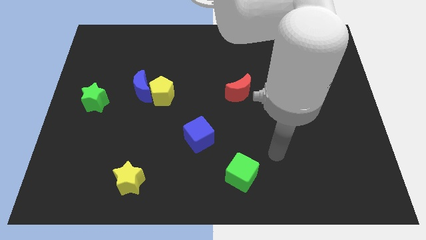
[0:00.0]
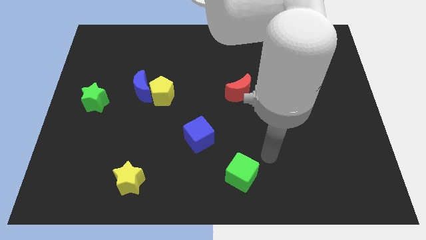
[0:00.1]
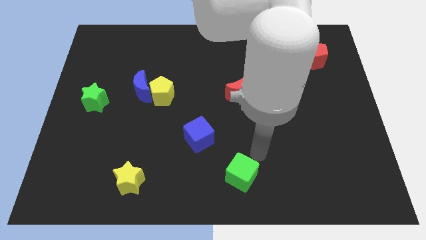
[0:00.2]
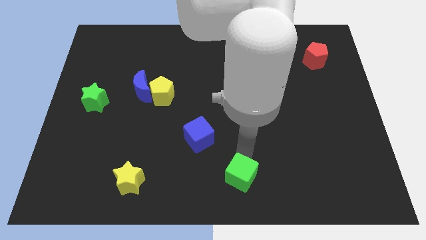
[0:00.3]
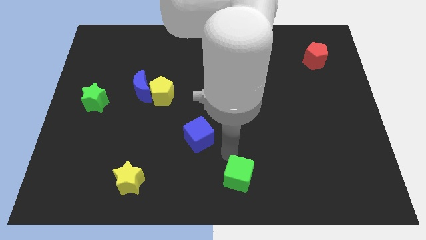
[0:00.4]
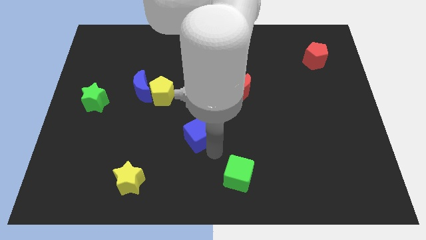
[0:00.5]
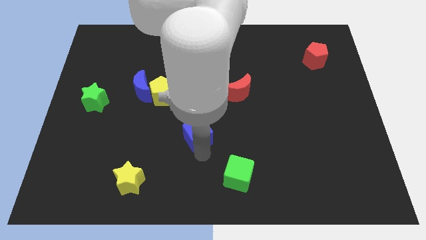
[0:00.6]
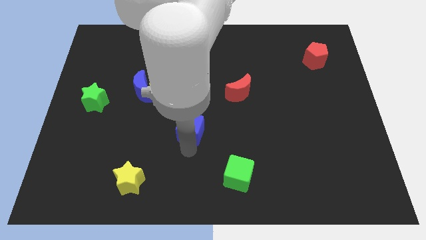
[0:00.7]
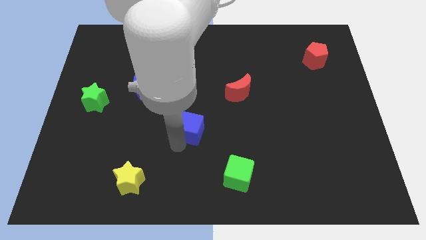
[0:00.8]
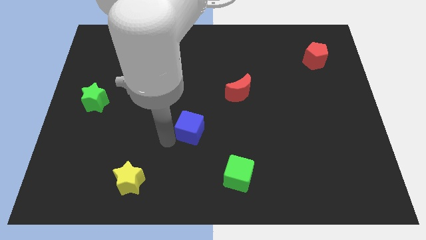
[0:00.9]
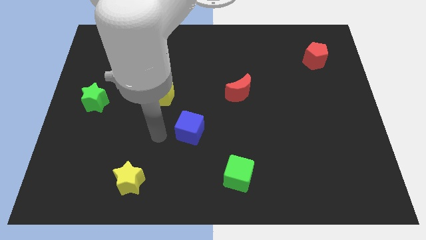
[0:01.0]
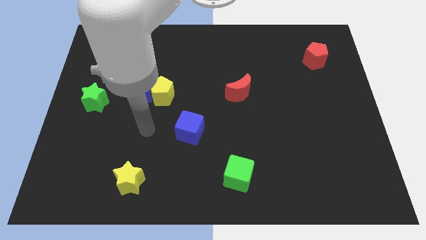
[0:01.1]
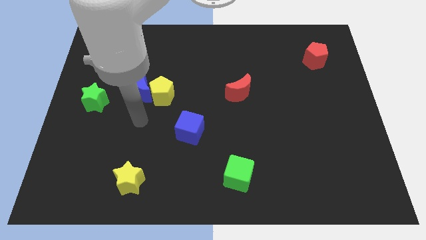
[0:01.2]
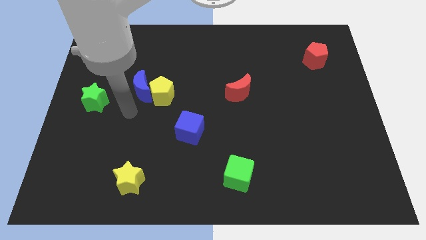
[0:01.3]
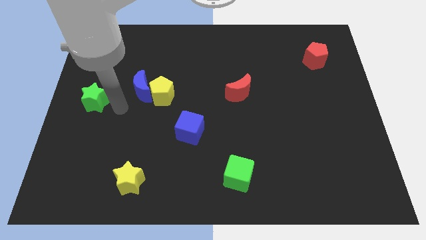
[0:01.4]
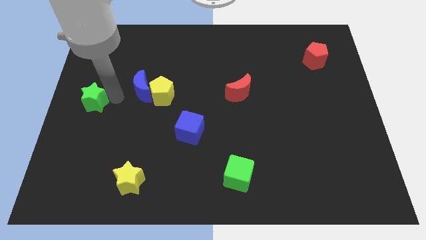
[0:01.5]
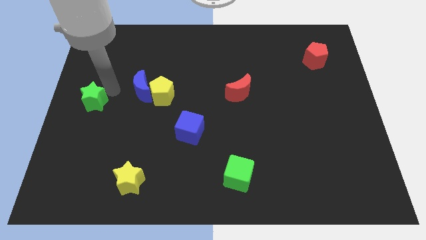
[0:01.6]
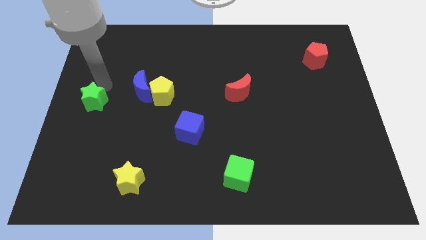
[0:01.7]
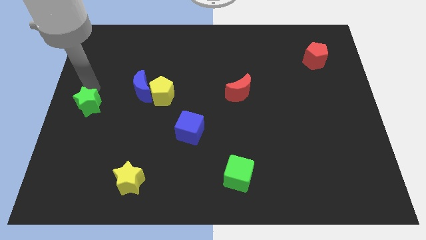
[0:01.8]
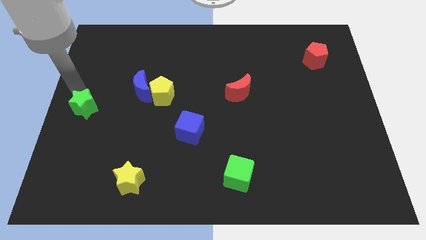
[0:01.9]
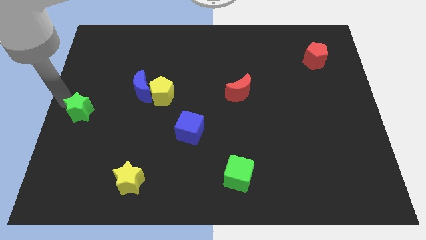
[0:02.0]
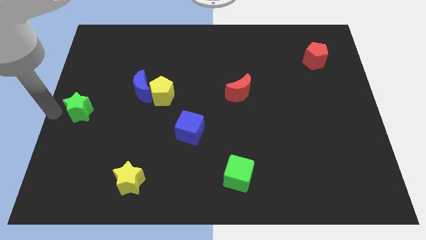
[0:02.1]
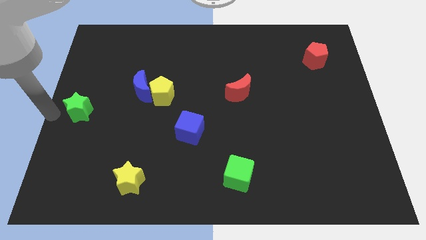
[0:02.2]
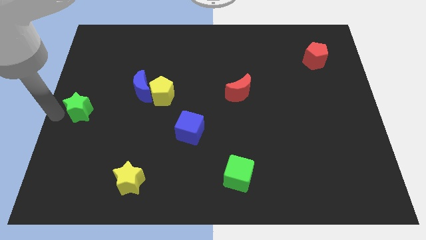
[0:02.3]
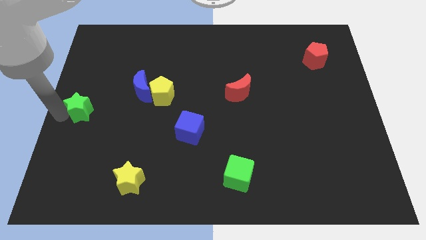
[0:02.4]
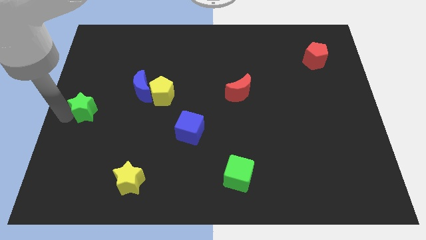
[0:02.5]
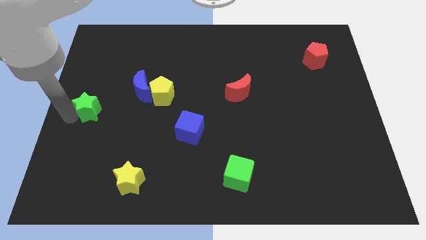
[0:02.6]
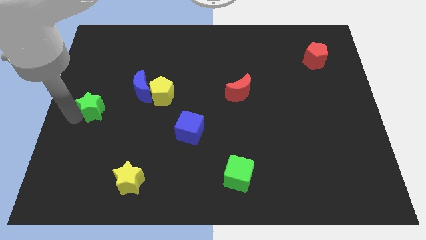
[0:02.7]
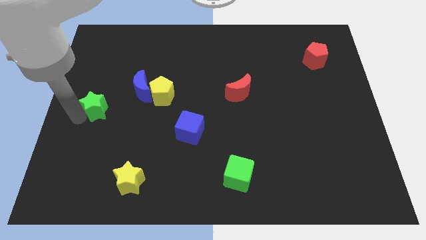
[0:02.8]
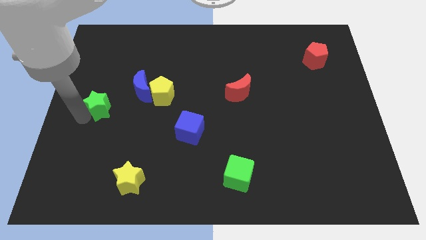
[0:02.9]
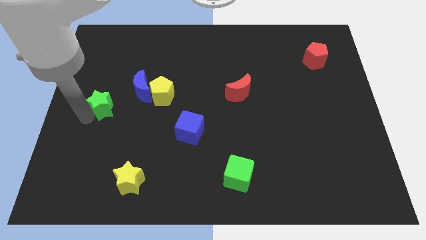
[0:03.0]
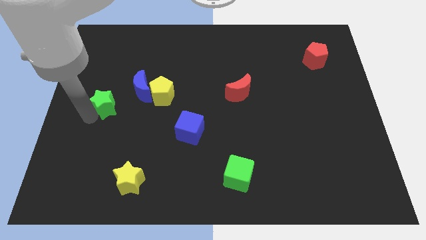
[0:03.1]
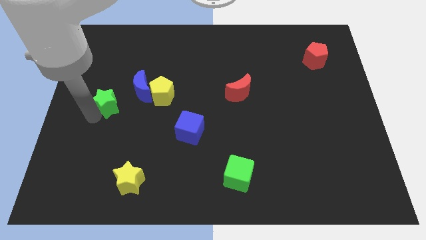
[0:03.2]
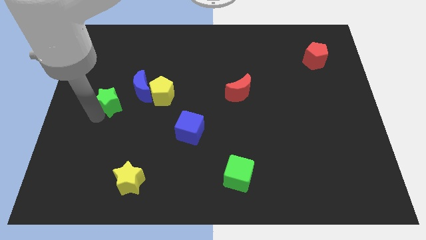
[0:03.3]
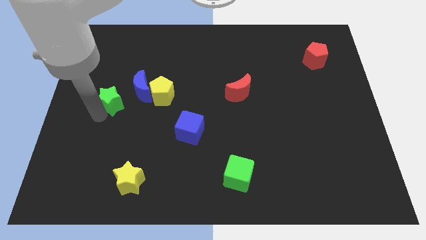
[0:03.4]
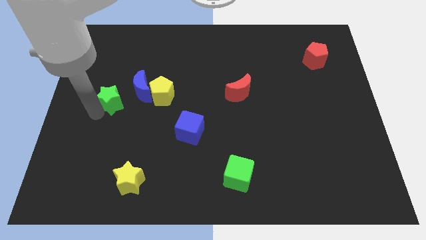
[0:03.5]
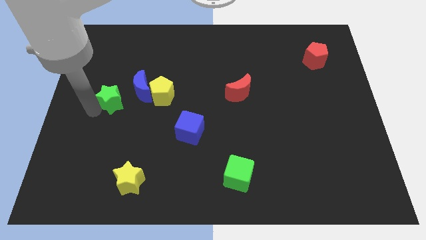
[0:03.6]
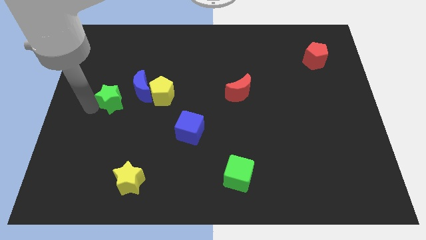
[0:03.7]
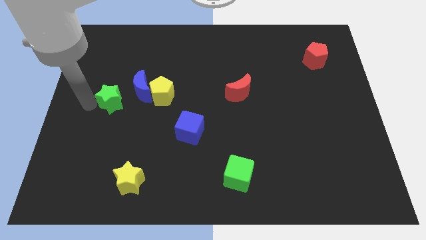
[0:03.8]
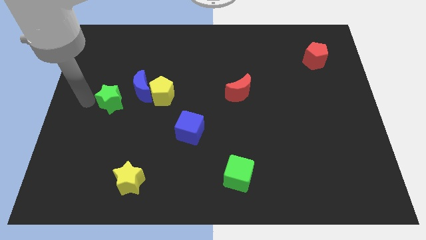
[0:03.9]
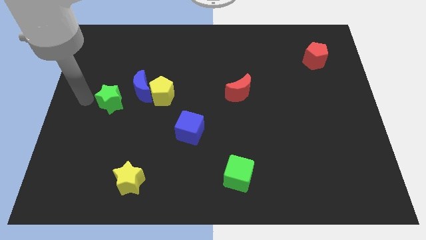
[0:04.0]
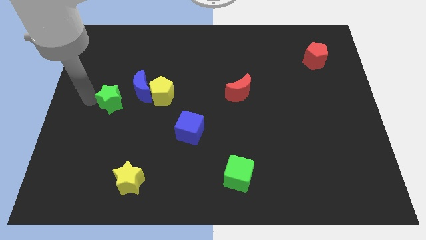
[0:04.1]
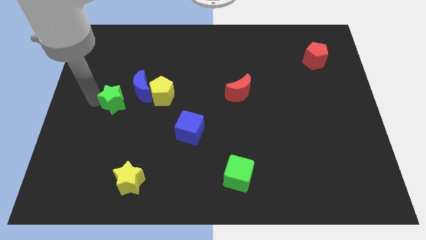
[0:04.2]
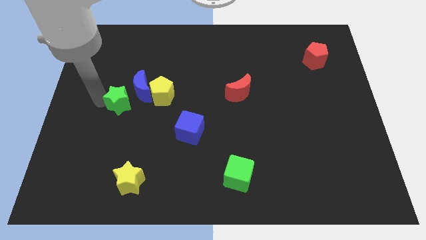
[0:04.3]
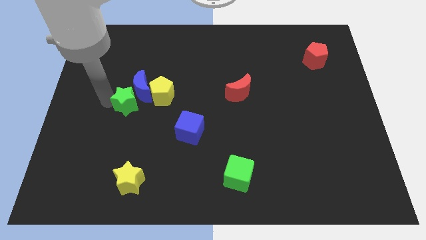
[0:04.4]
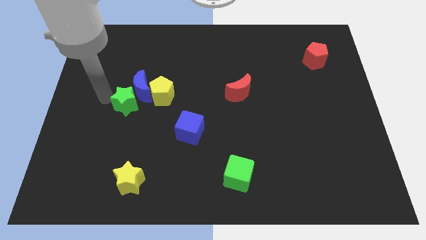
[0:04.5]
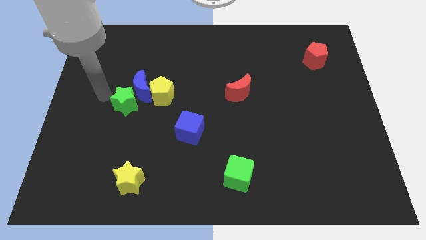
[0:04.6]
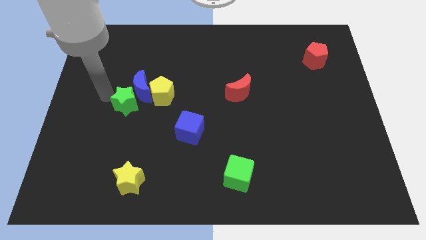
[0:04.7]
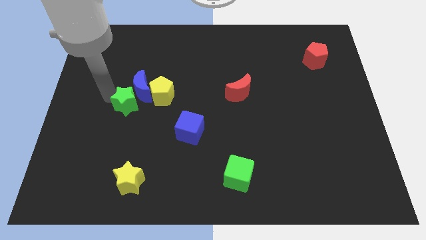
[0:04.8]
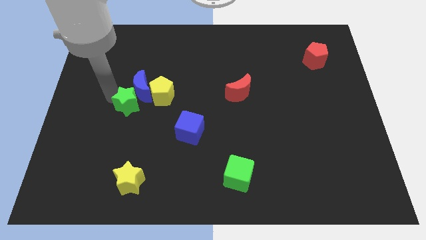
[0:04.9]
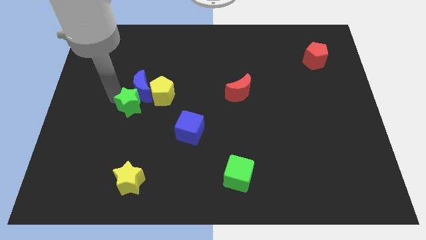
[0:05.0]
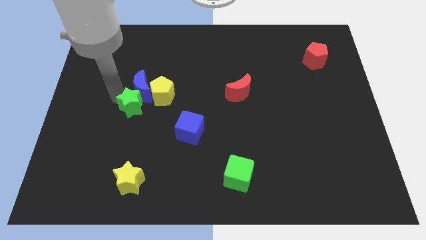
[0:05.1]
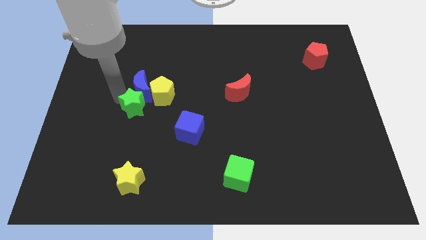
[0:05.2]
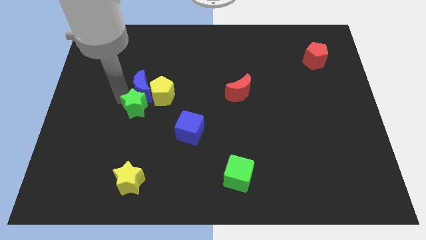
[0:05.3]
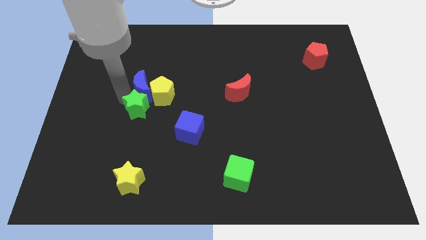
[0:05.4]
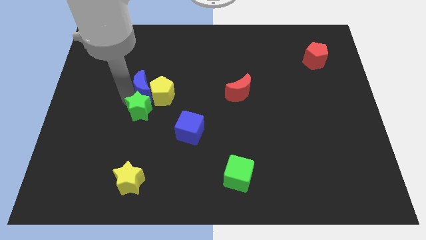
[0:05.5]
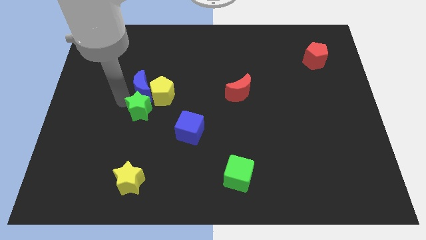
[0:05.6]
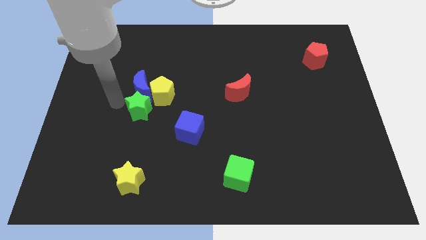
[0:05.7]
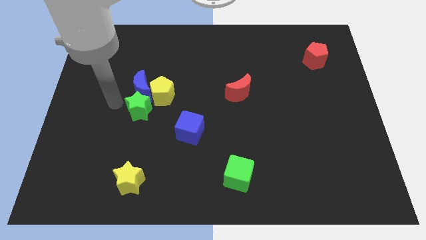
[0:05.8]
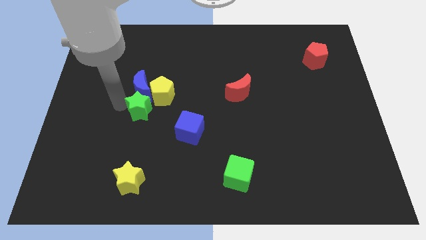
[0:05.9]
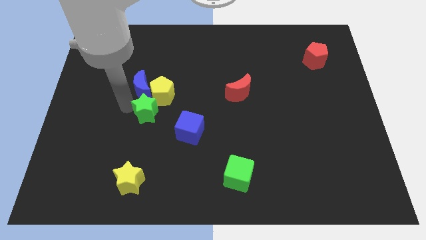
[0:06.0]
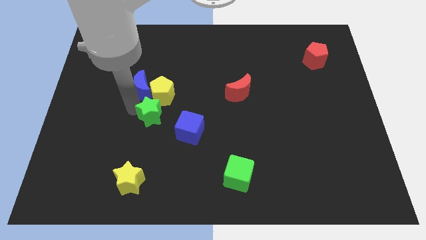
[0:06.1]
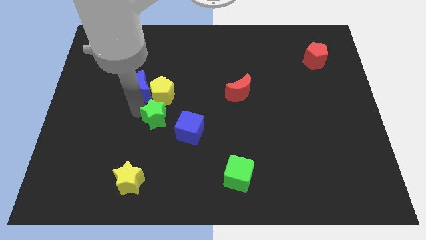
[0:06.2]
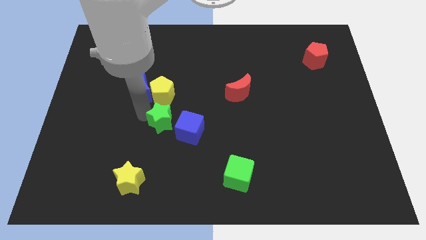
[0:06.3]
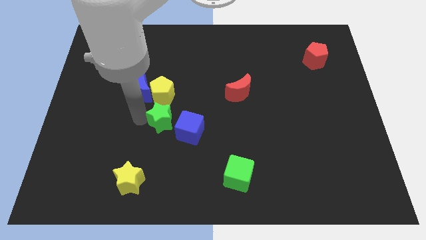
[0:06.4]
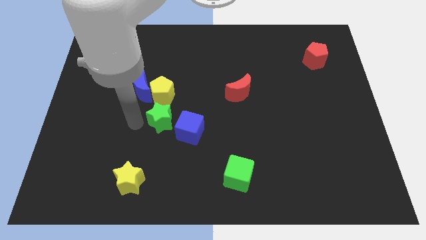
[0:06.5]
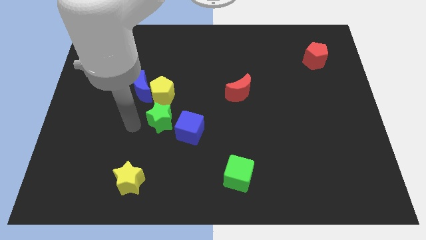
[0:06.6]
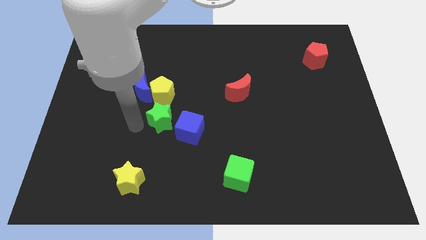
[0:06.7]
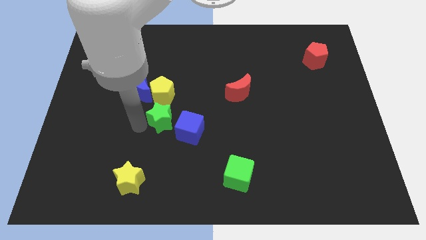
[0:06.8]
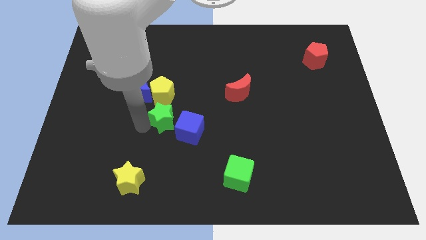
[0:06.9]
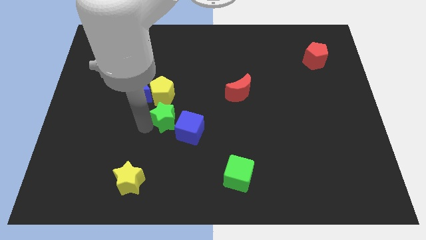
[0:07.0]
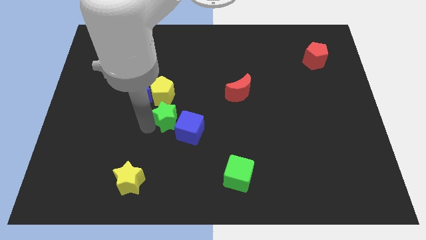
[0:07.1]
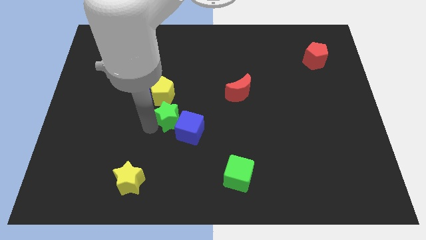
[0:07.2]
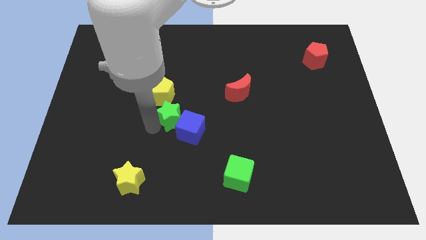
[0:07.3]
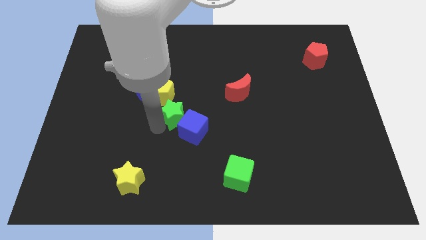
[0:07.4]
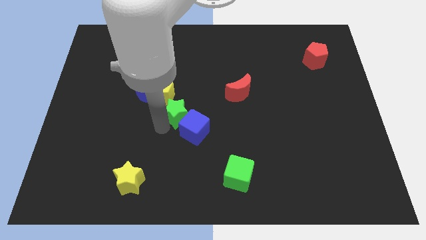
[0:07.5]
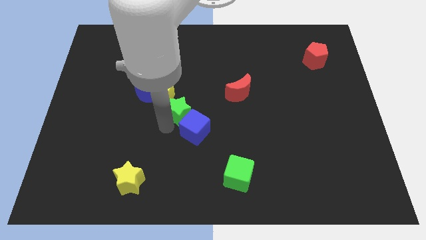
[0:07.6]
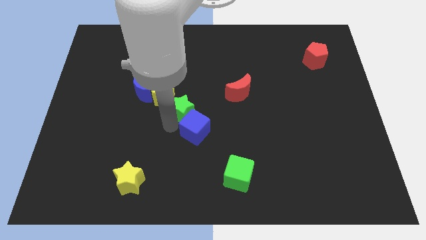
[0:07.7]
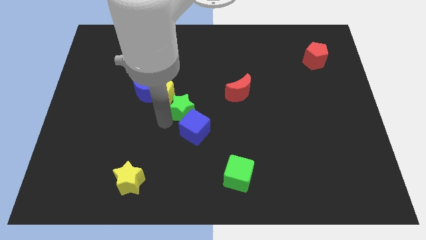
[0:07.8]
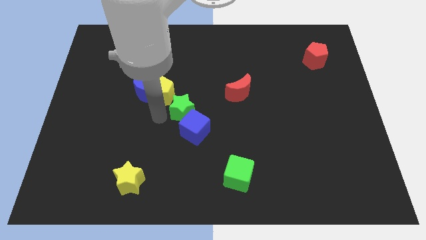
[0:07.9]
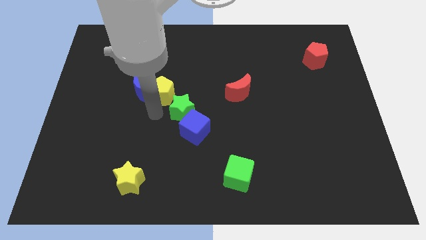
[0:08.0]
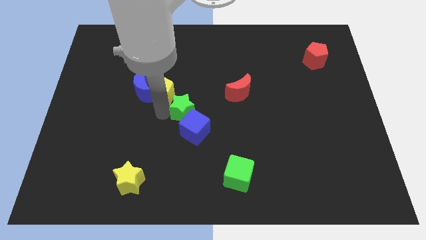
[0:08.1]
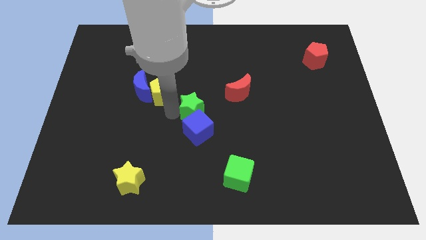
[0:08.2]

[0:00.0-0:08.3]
slide the green star to the top right side of the blue cube
